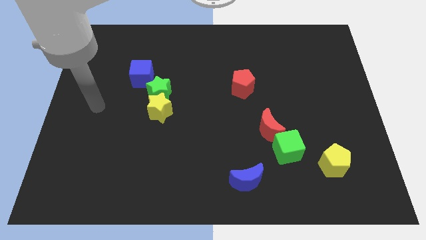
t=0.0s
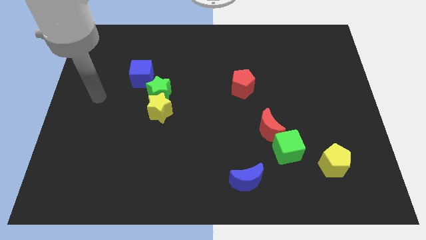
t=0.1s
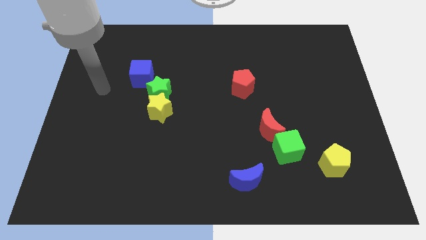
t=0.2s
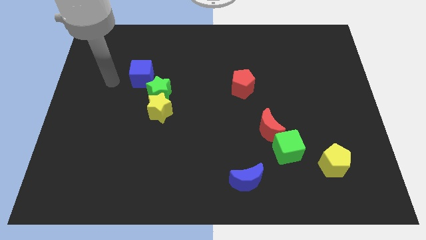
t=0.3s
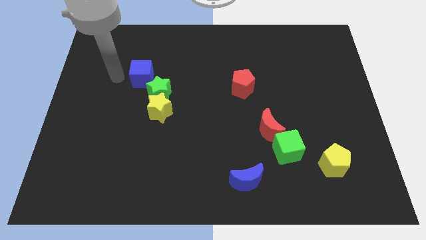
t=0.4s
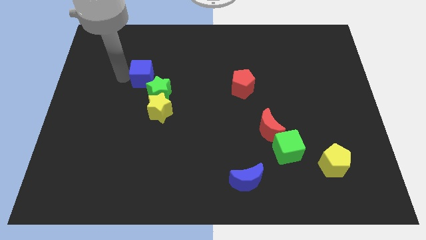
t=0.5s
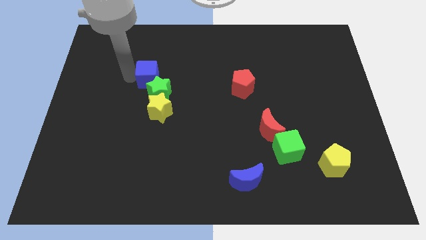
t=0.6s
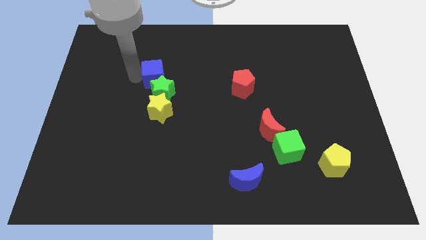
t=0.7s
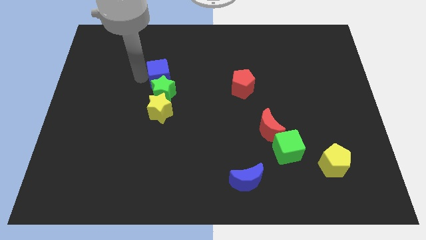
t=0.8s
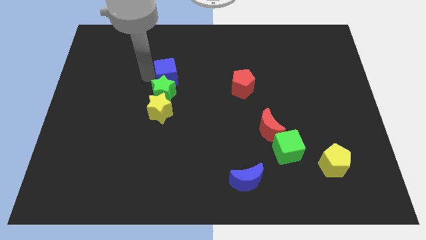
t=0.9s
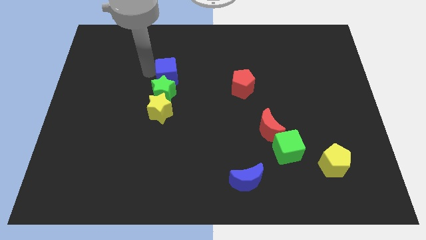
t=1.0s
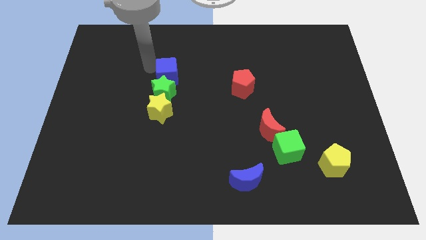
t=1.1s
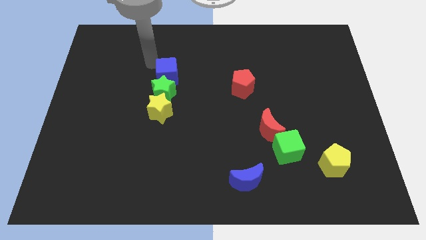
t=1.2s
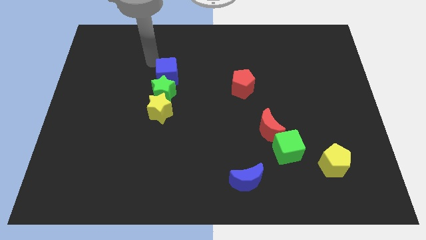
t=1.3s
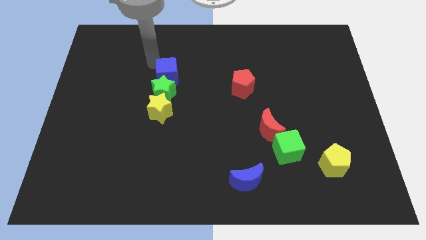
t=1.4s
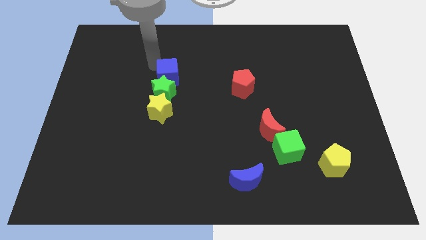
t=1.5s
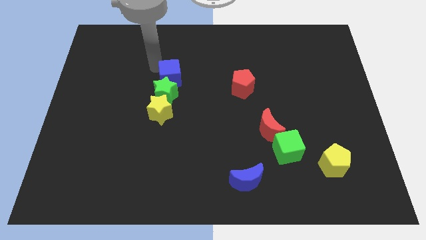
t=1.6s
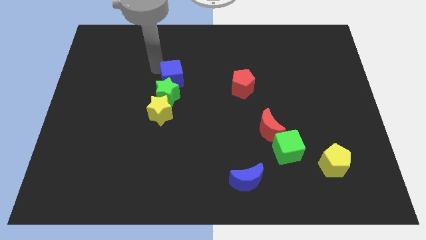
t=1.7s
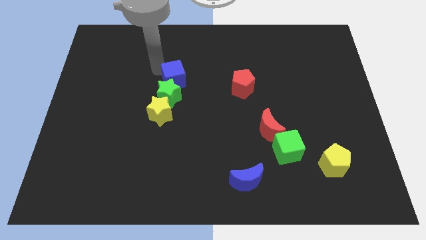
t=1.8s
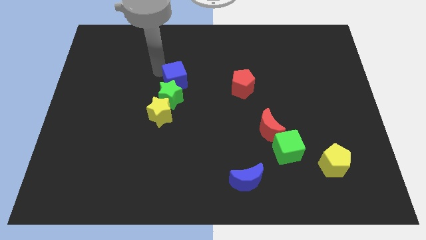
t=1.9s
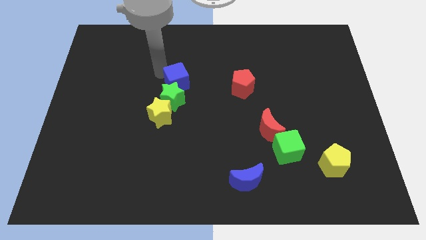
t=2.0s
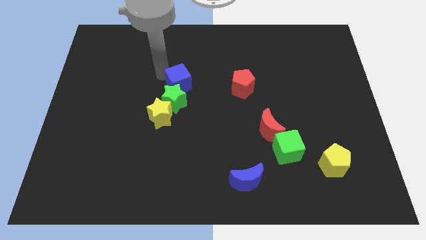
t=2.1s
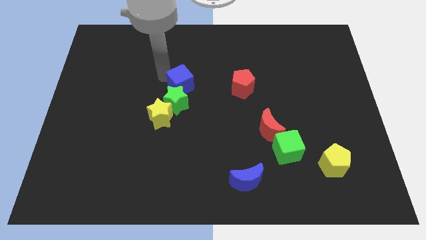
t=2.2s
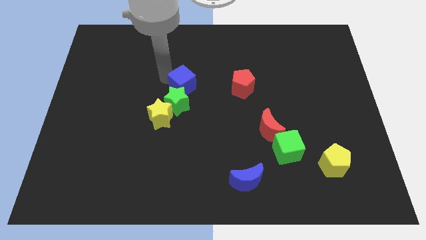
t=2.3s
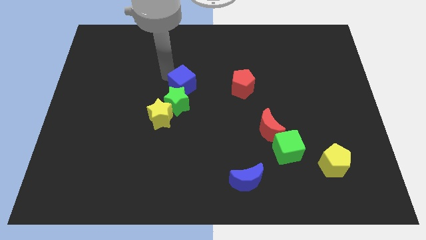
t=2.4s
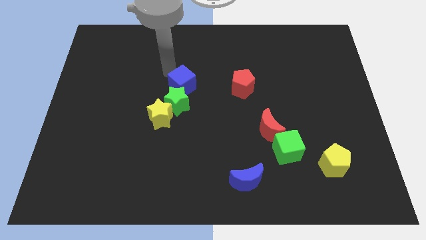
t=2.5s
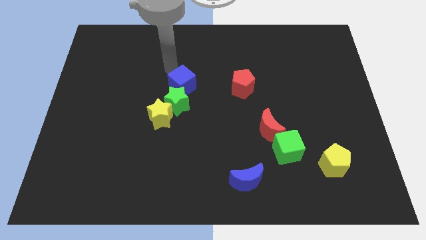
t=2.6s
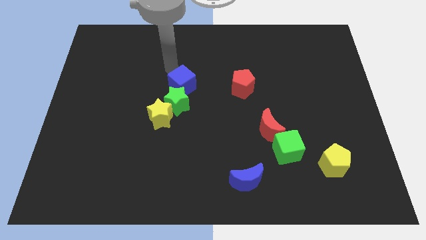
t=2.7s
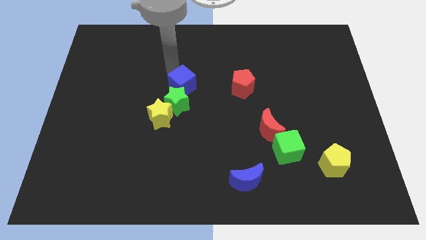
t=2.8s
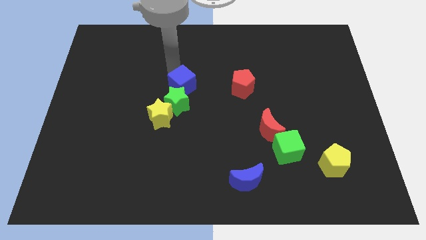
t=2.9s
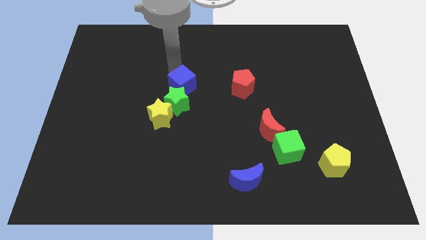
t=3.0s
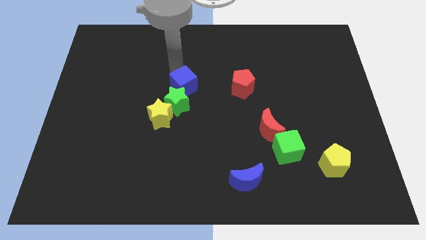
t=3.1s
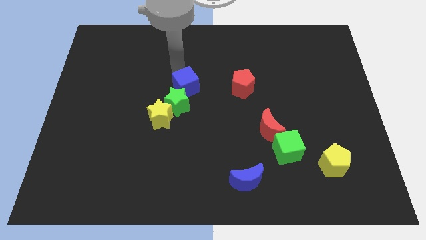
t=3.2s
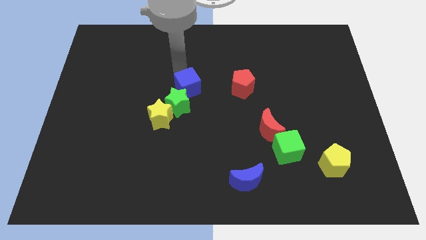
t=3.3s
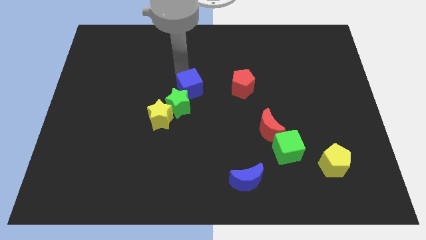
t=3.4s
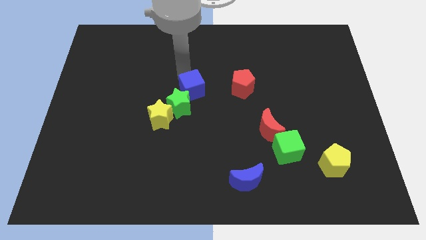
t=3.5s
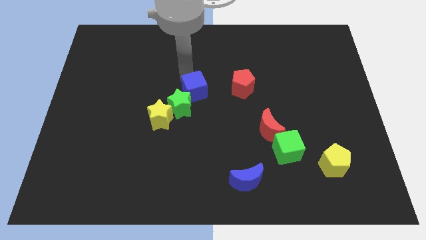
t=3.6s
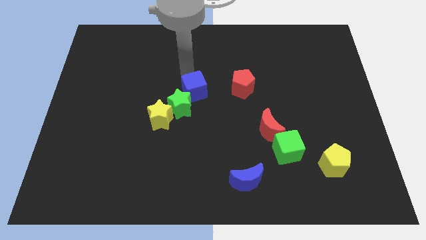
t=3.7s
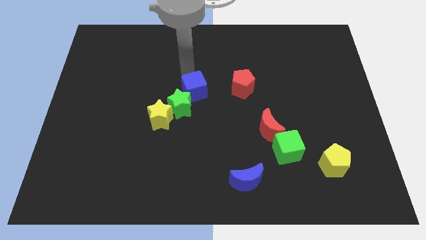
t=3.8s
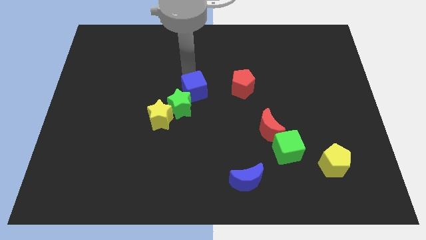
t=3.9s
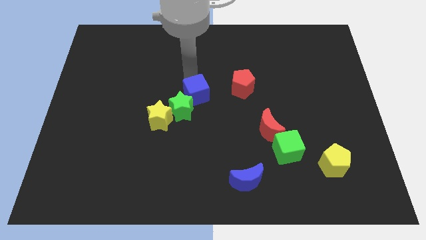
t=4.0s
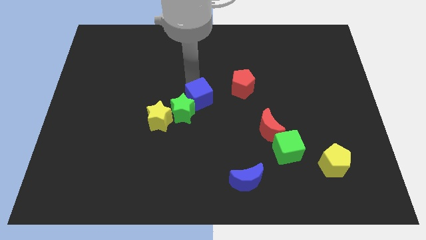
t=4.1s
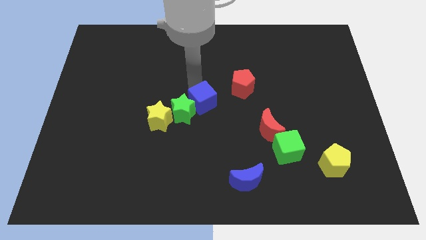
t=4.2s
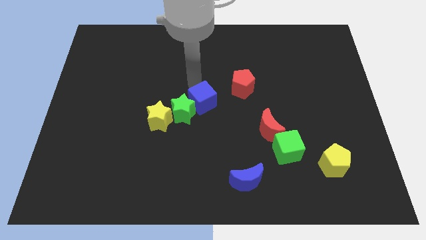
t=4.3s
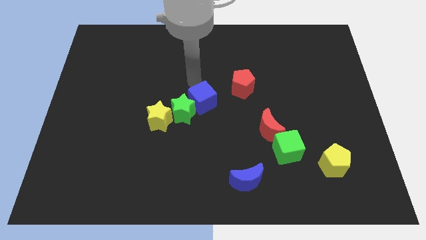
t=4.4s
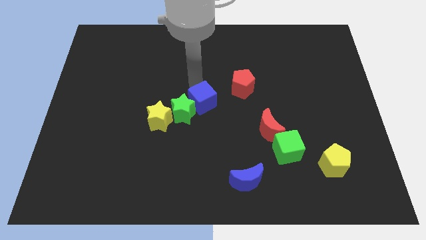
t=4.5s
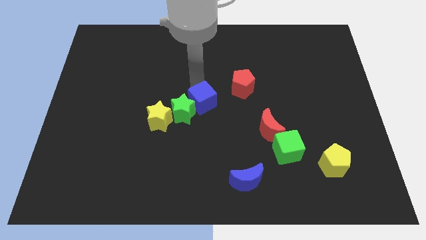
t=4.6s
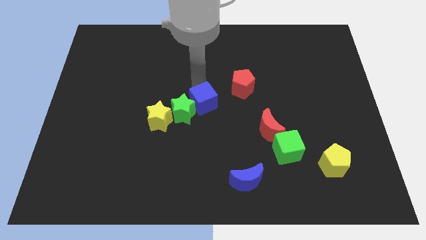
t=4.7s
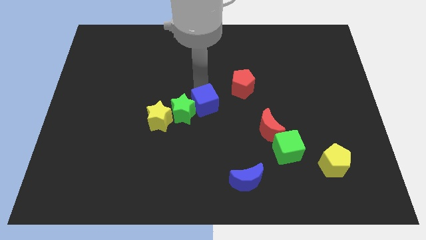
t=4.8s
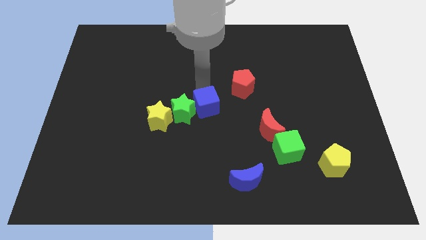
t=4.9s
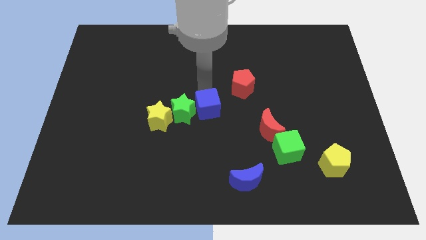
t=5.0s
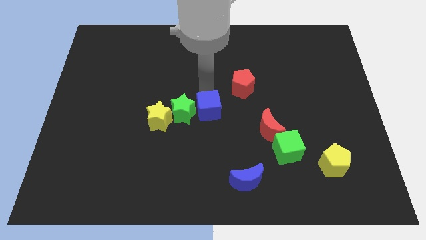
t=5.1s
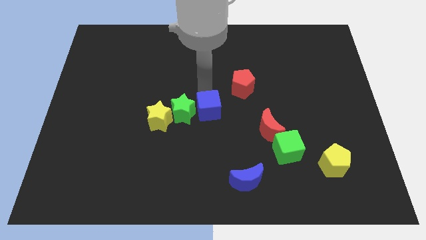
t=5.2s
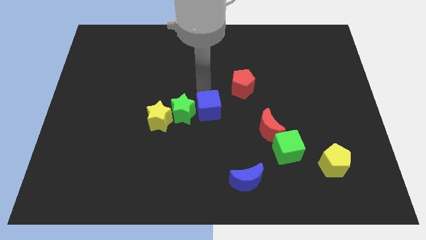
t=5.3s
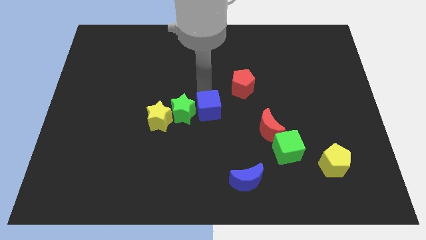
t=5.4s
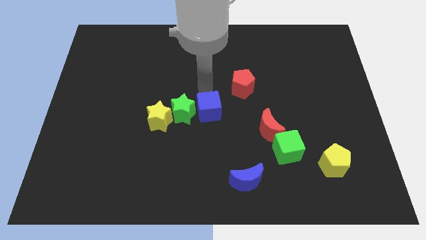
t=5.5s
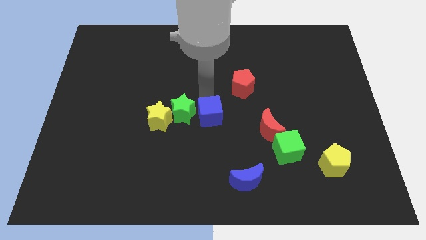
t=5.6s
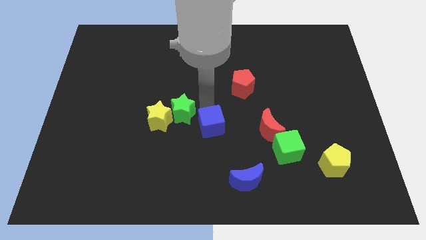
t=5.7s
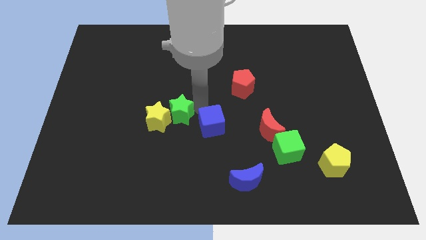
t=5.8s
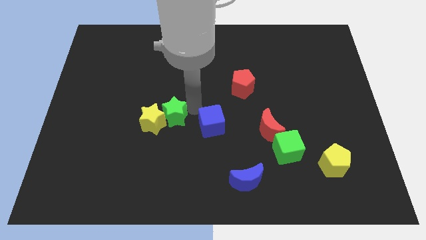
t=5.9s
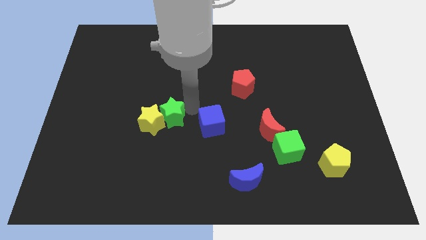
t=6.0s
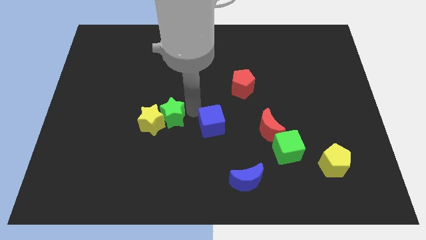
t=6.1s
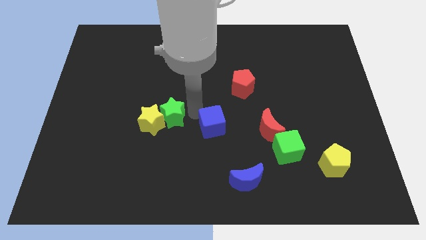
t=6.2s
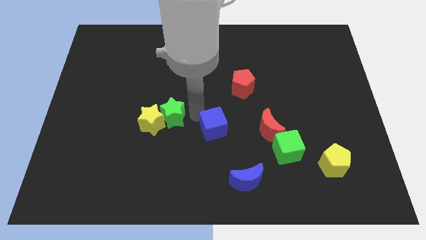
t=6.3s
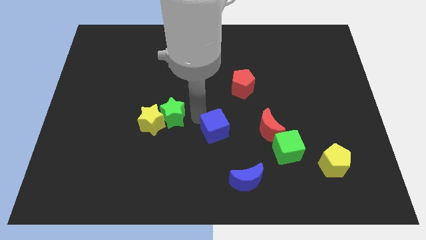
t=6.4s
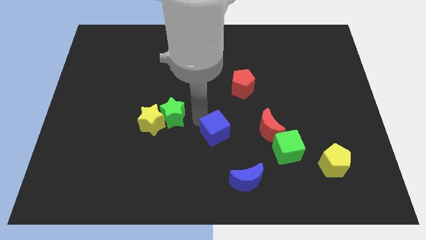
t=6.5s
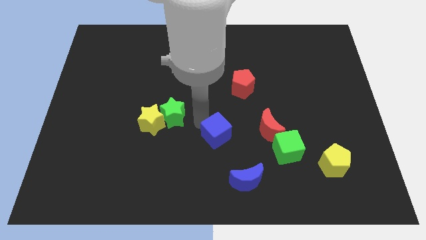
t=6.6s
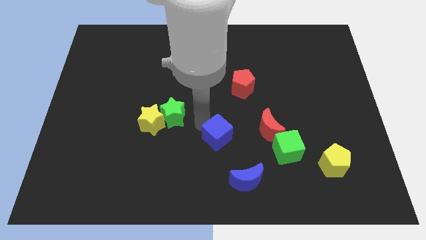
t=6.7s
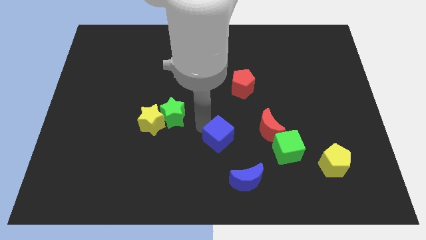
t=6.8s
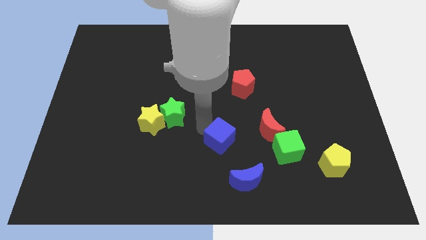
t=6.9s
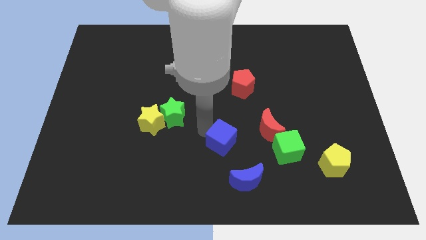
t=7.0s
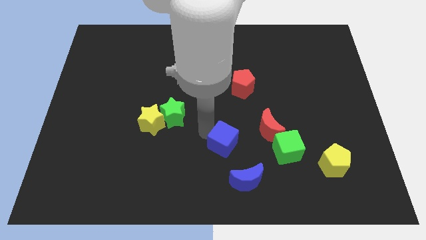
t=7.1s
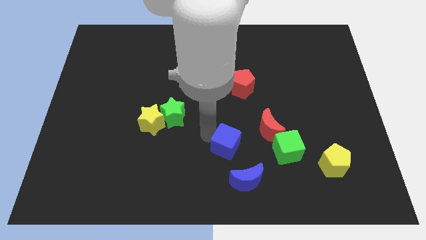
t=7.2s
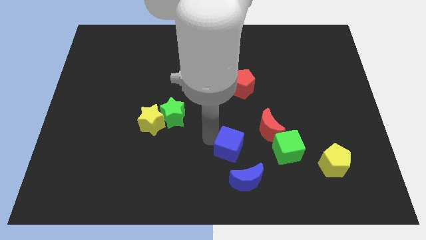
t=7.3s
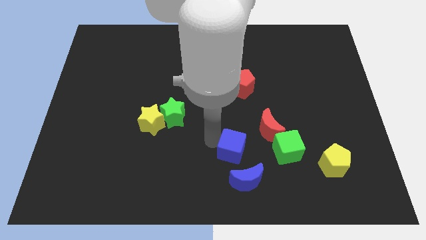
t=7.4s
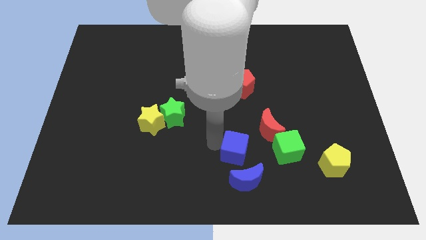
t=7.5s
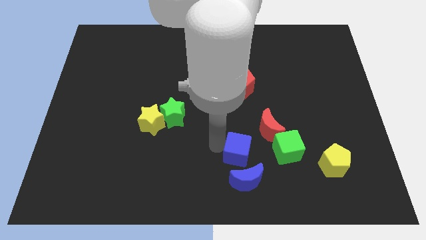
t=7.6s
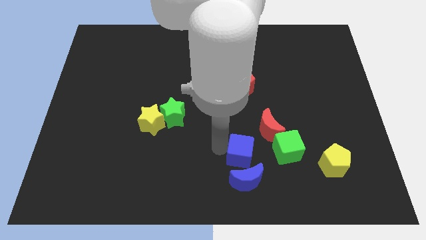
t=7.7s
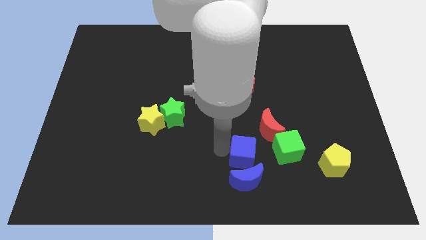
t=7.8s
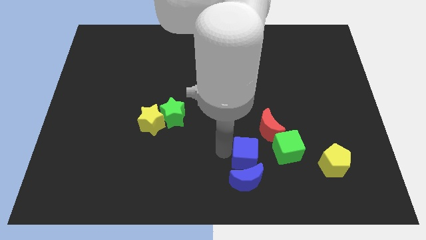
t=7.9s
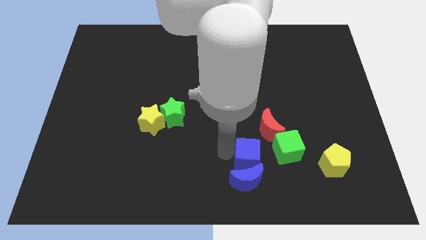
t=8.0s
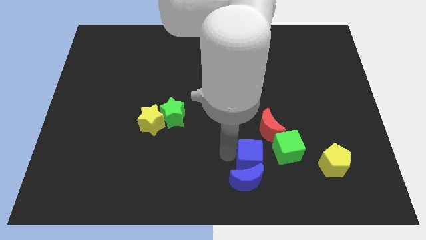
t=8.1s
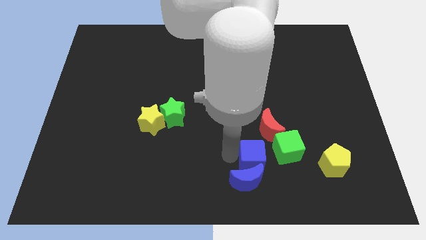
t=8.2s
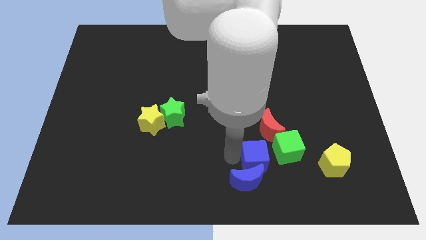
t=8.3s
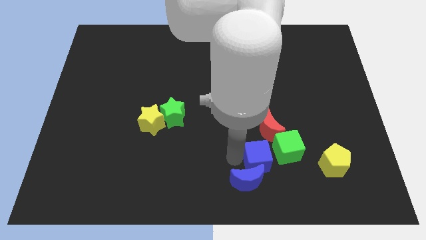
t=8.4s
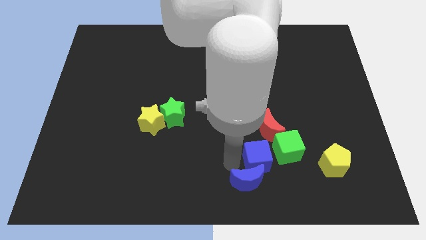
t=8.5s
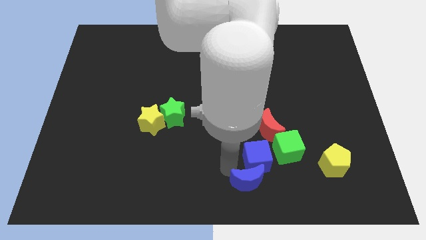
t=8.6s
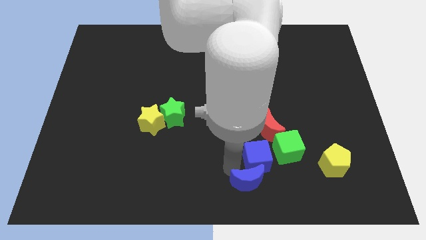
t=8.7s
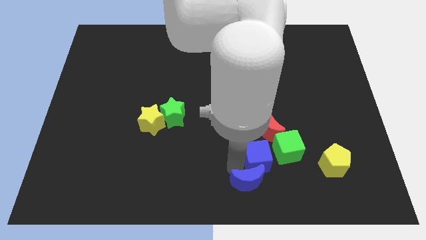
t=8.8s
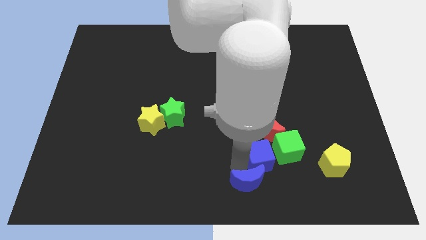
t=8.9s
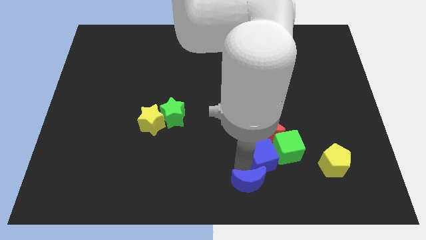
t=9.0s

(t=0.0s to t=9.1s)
slide the blue cube close to the green cube
